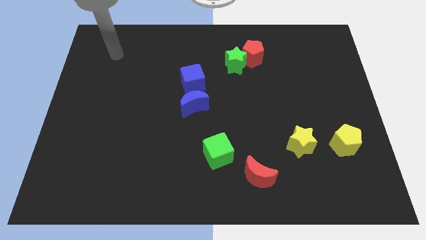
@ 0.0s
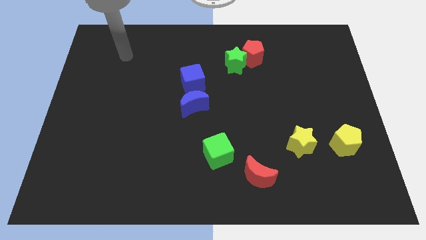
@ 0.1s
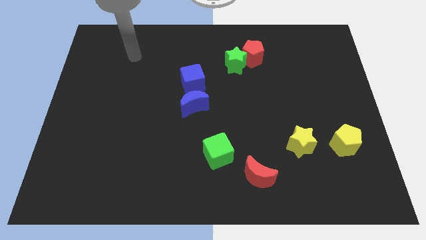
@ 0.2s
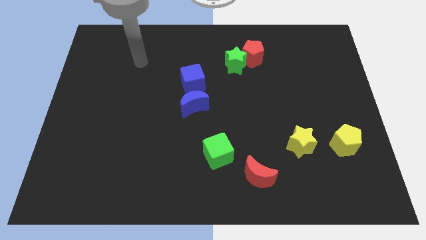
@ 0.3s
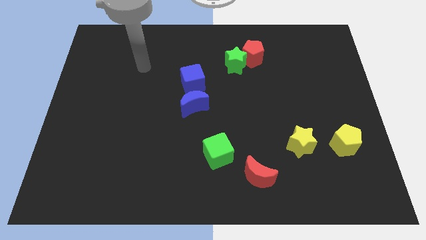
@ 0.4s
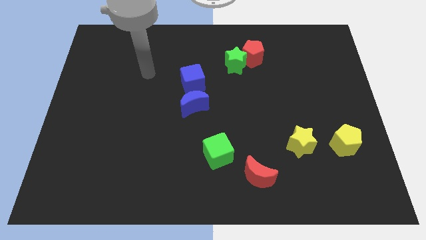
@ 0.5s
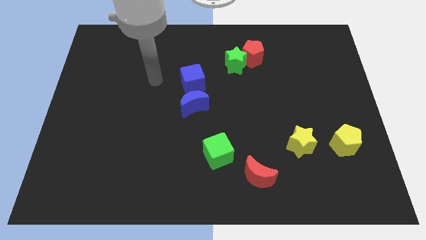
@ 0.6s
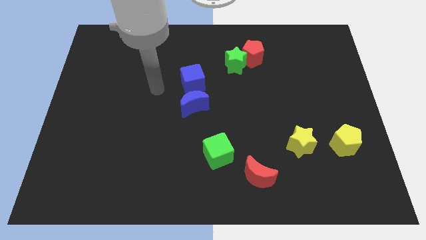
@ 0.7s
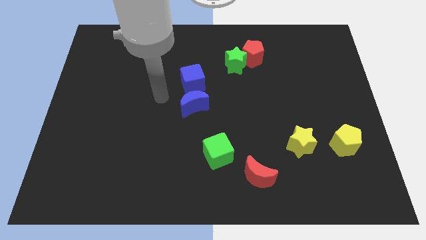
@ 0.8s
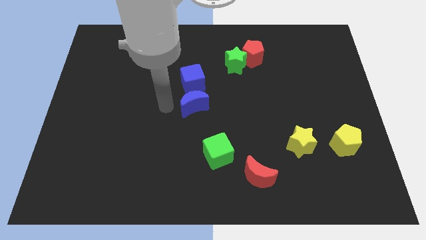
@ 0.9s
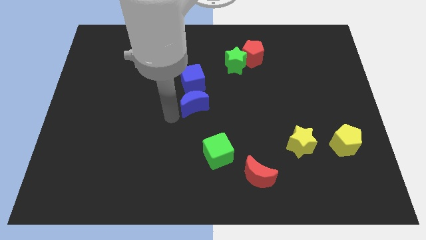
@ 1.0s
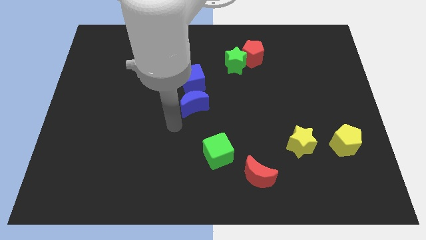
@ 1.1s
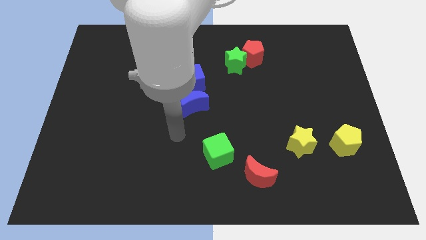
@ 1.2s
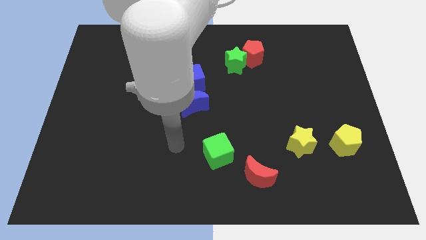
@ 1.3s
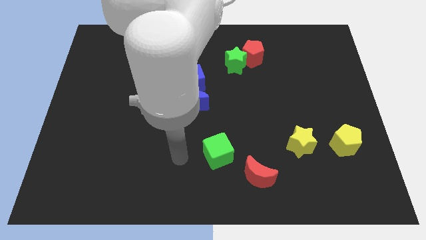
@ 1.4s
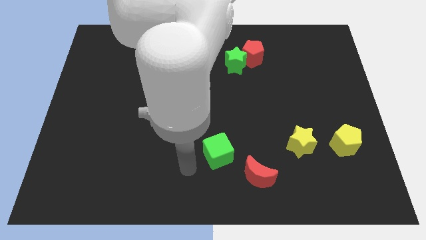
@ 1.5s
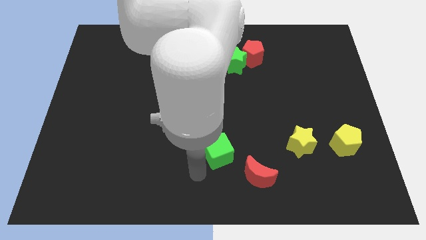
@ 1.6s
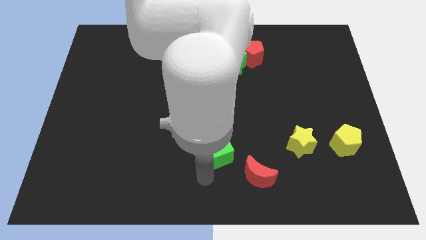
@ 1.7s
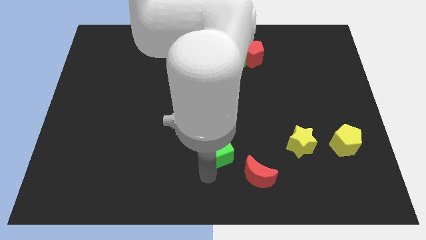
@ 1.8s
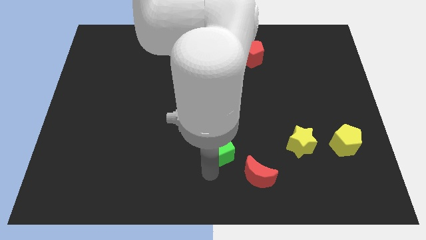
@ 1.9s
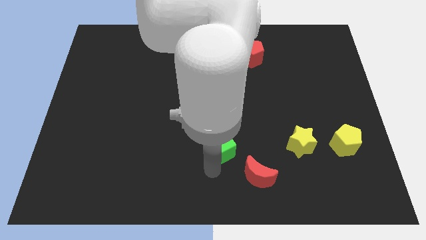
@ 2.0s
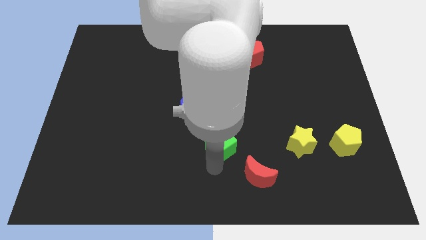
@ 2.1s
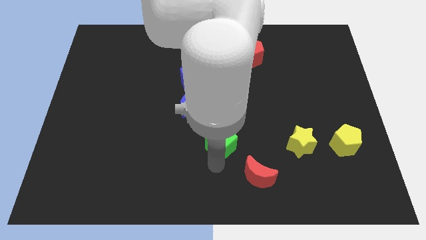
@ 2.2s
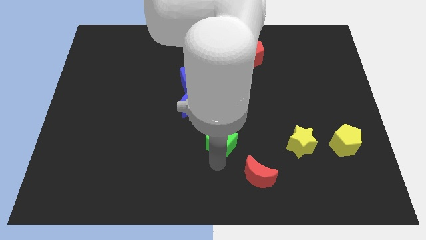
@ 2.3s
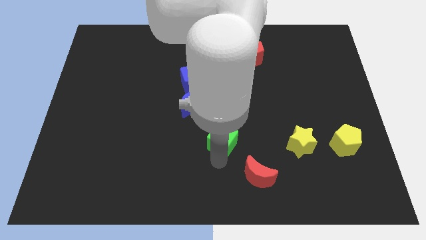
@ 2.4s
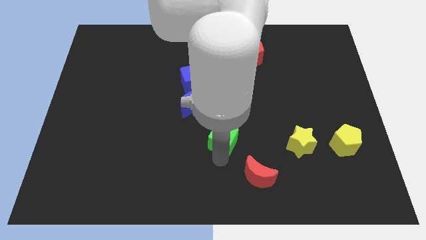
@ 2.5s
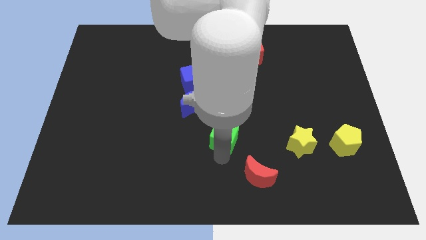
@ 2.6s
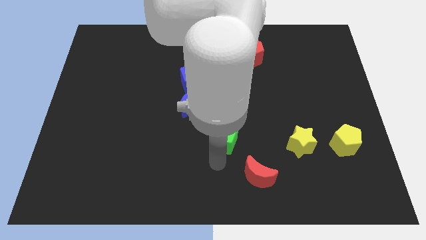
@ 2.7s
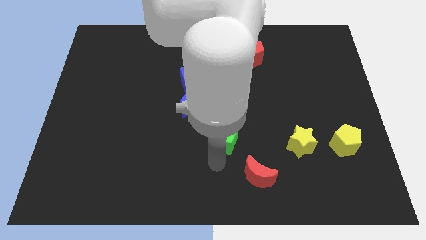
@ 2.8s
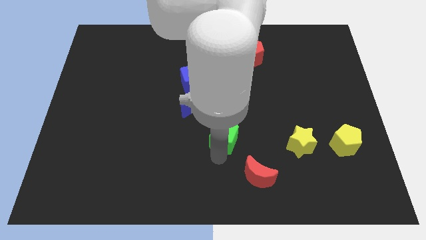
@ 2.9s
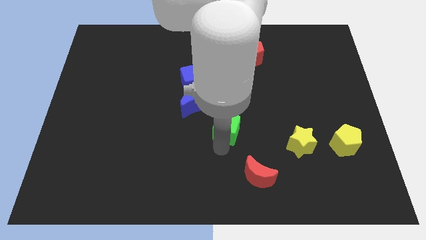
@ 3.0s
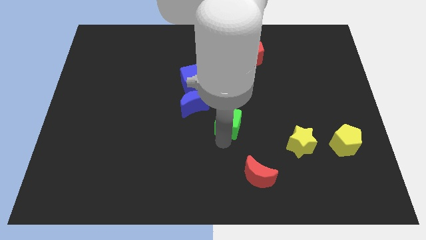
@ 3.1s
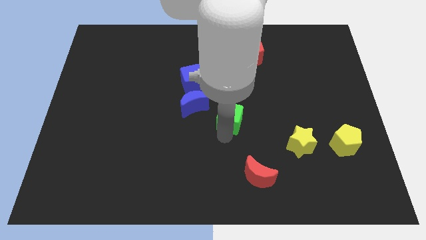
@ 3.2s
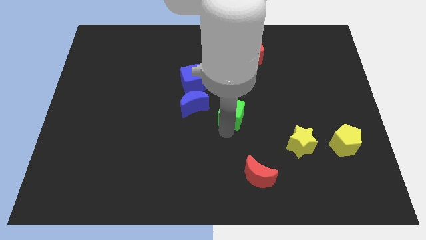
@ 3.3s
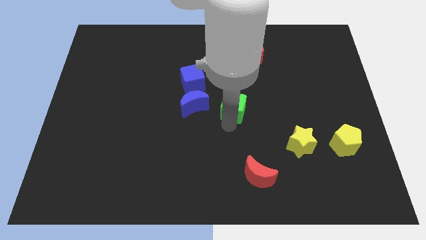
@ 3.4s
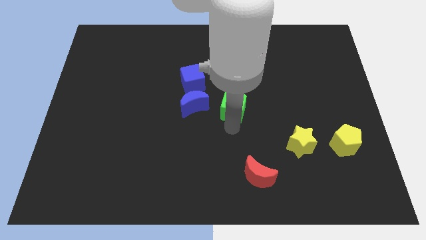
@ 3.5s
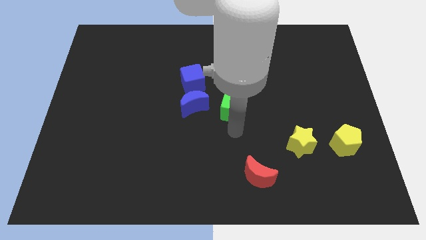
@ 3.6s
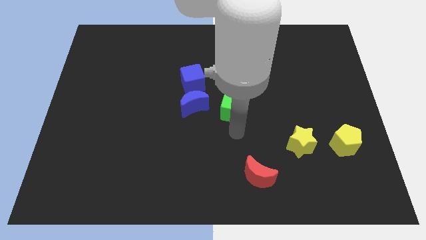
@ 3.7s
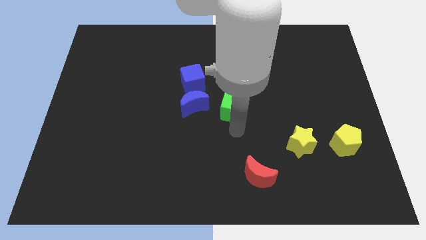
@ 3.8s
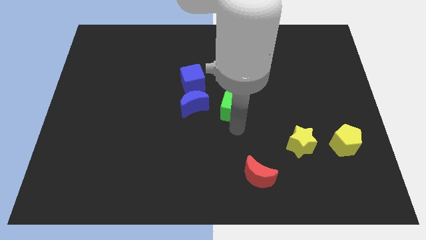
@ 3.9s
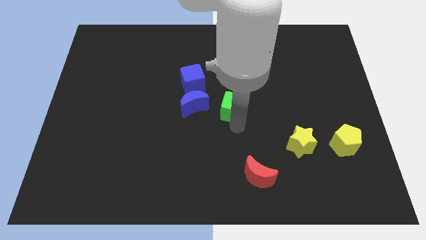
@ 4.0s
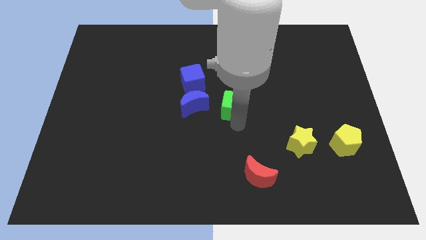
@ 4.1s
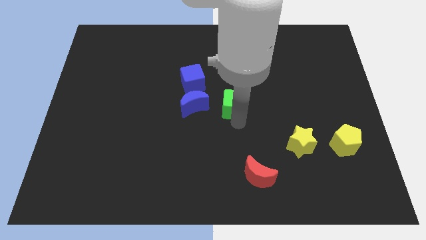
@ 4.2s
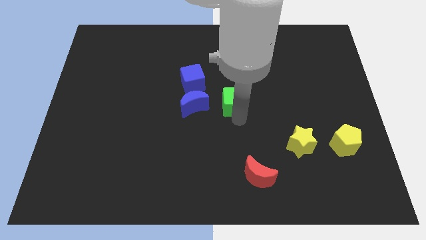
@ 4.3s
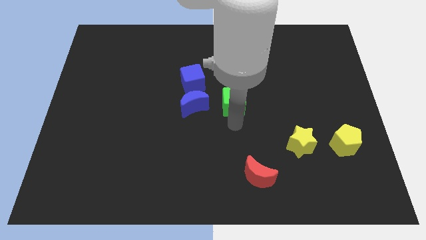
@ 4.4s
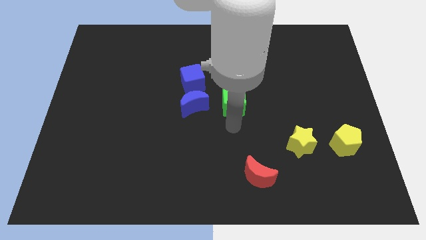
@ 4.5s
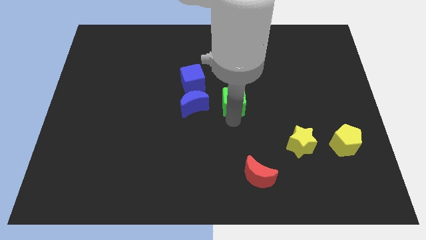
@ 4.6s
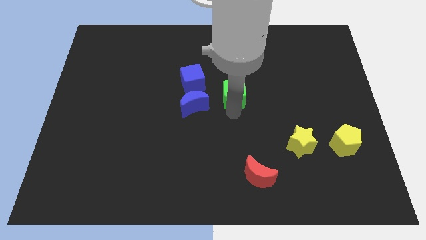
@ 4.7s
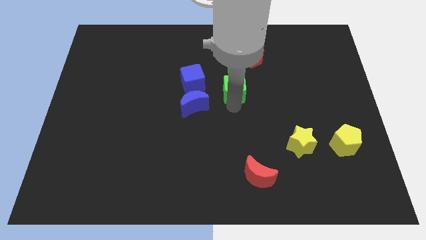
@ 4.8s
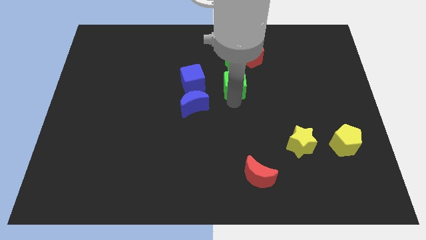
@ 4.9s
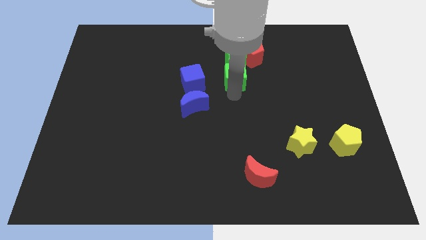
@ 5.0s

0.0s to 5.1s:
put the green cube towards the green star

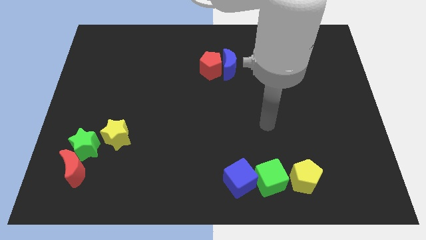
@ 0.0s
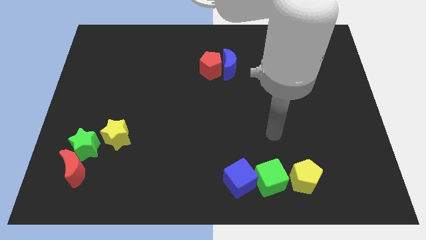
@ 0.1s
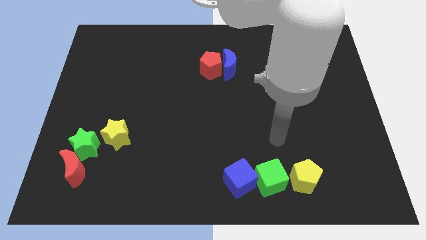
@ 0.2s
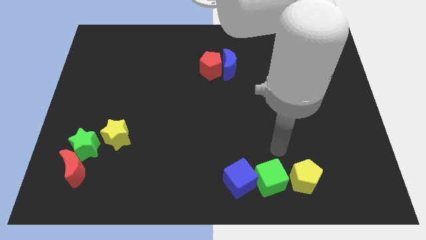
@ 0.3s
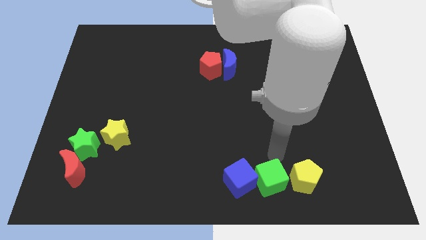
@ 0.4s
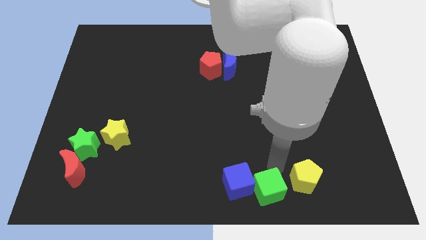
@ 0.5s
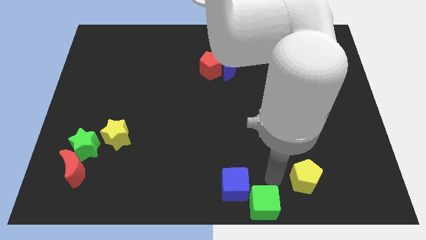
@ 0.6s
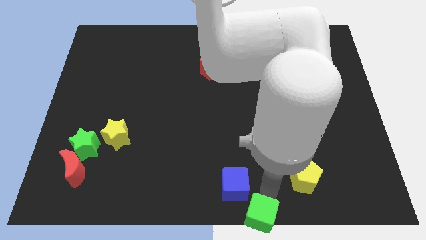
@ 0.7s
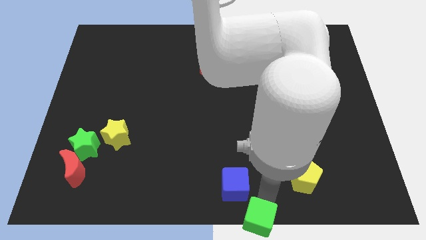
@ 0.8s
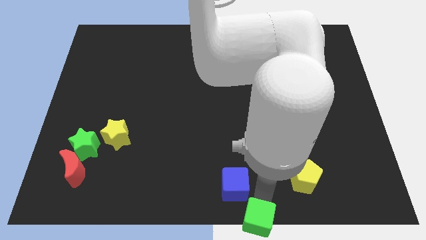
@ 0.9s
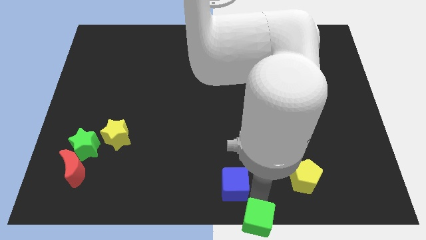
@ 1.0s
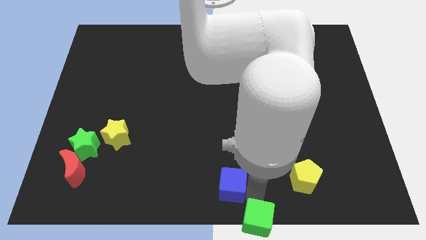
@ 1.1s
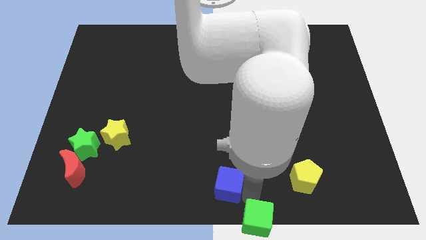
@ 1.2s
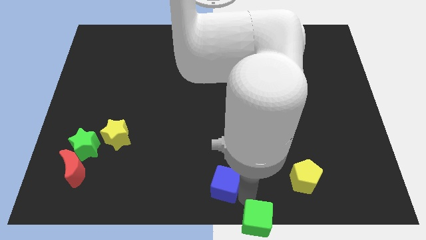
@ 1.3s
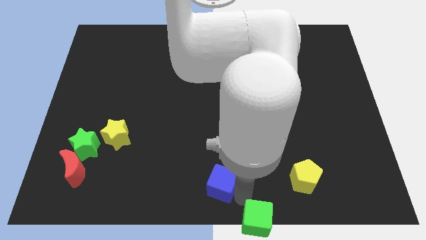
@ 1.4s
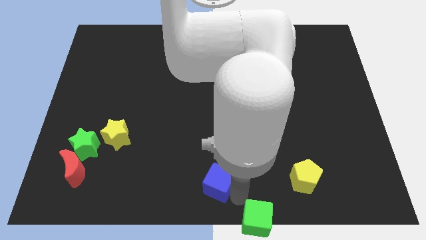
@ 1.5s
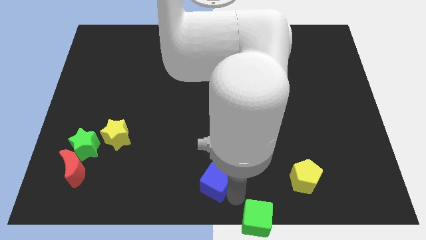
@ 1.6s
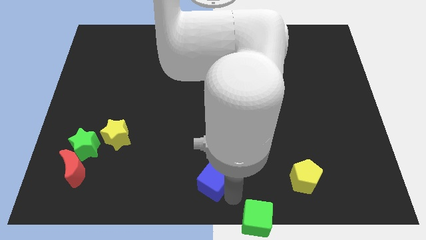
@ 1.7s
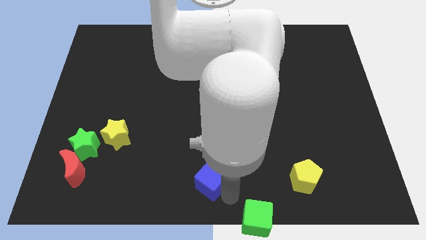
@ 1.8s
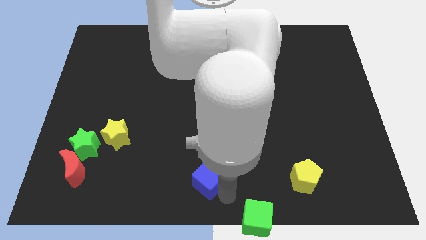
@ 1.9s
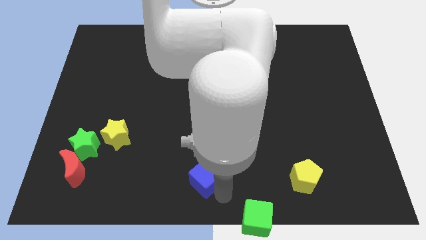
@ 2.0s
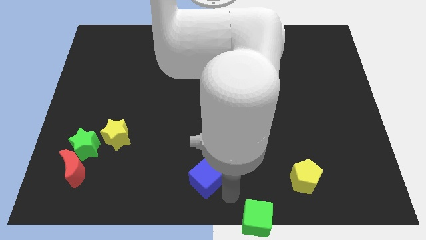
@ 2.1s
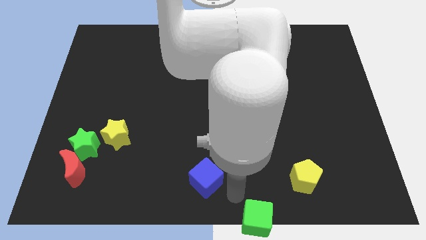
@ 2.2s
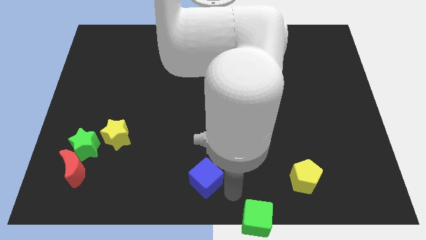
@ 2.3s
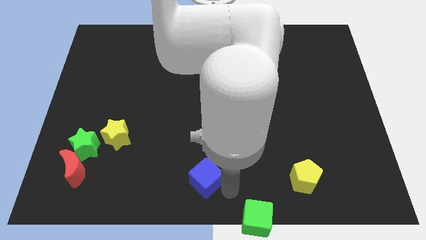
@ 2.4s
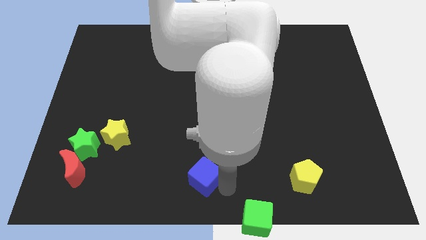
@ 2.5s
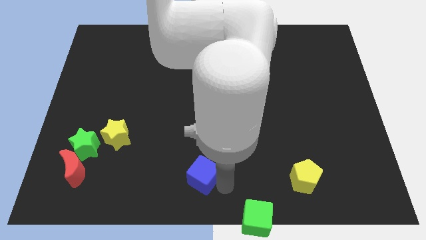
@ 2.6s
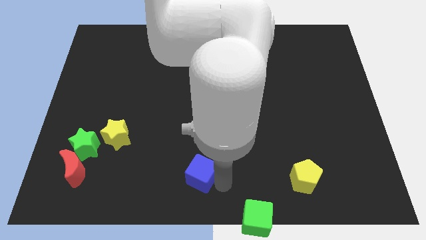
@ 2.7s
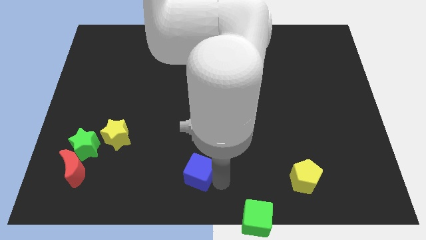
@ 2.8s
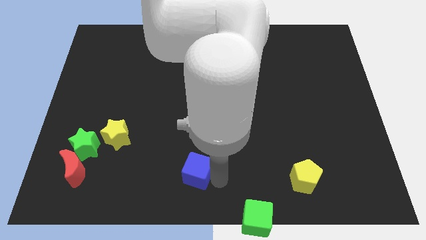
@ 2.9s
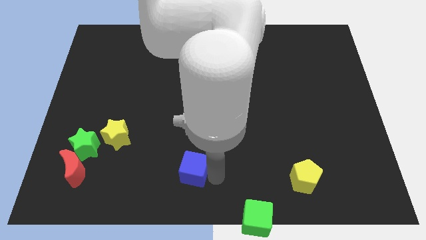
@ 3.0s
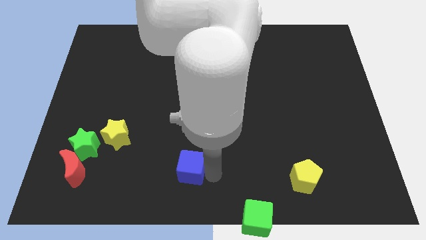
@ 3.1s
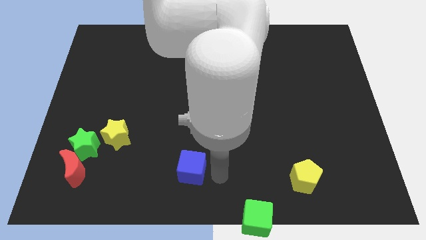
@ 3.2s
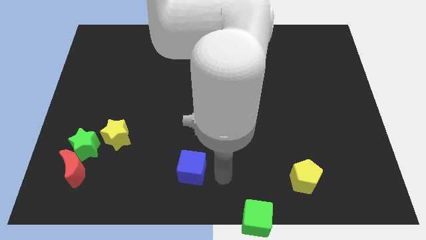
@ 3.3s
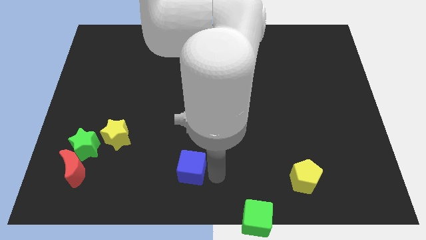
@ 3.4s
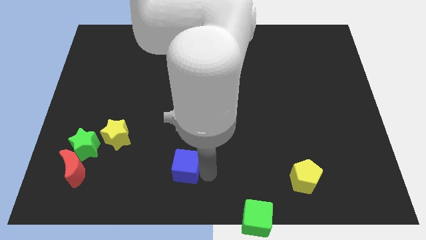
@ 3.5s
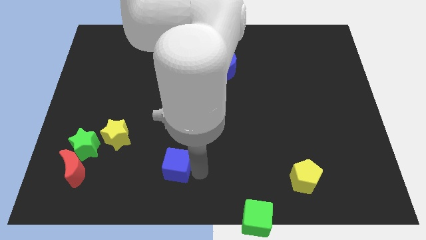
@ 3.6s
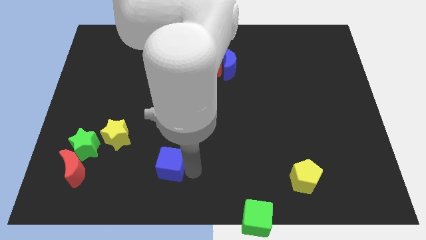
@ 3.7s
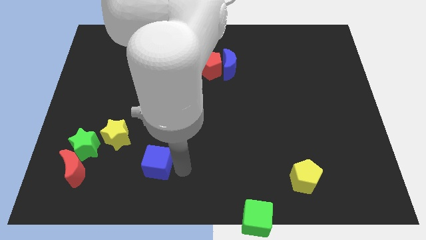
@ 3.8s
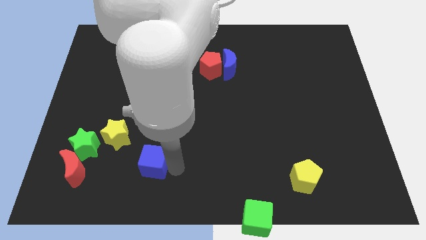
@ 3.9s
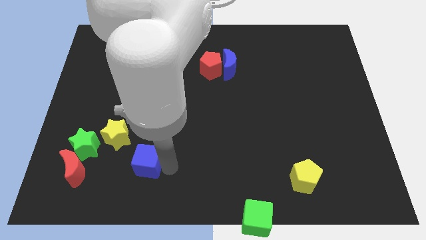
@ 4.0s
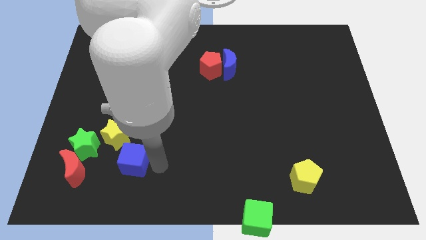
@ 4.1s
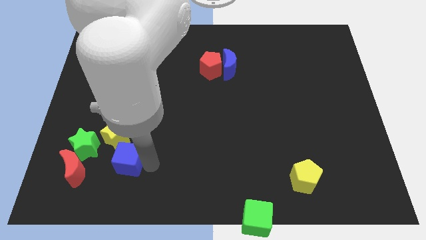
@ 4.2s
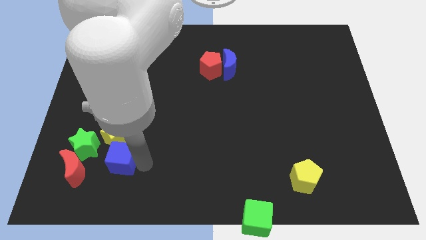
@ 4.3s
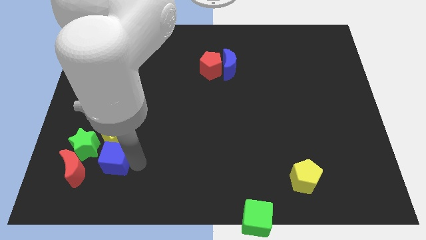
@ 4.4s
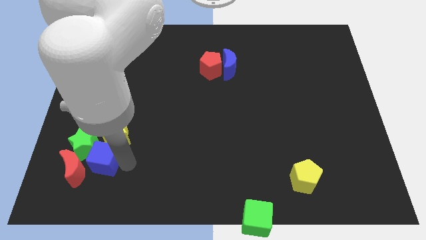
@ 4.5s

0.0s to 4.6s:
push the blue cube close to the green star
